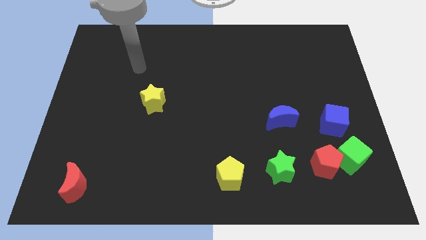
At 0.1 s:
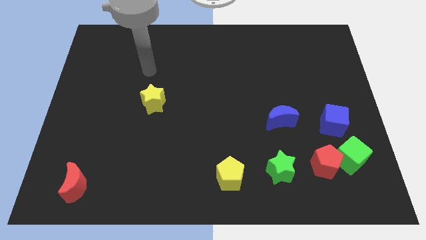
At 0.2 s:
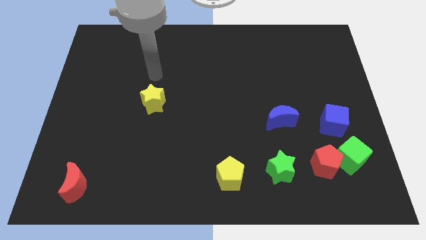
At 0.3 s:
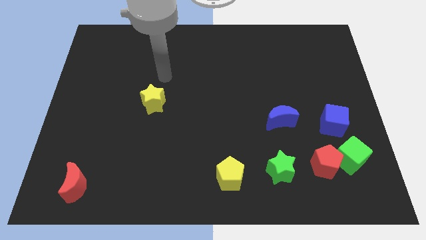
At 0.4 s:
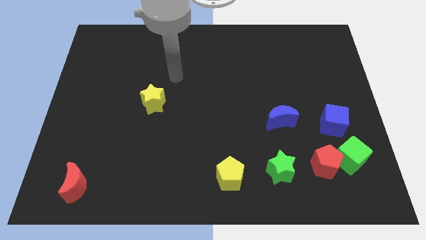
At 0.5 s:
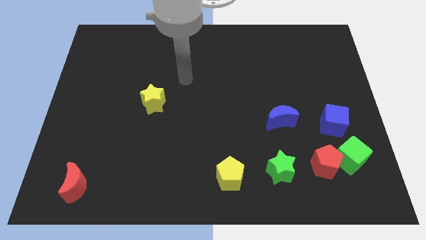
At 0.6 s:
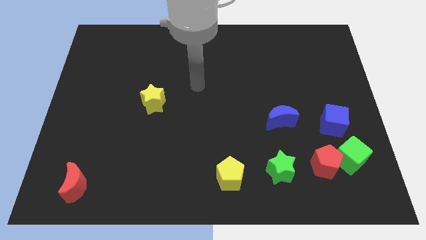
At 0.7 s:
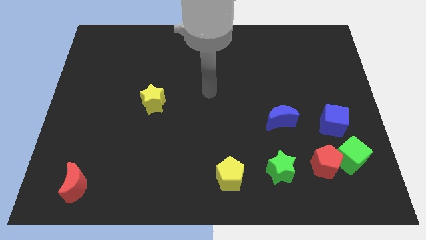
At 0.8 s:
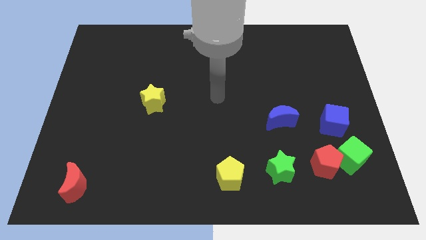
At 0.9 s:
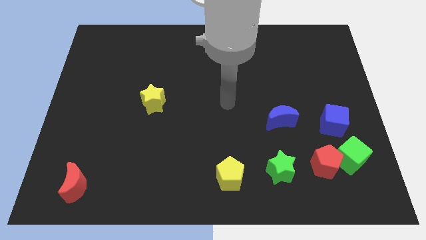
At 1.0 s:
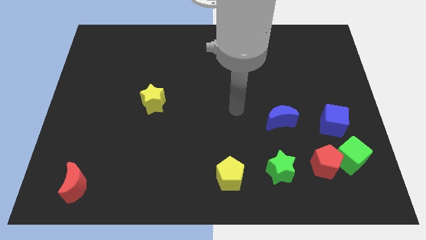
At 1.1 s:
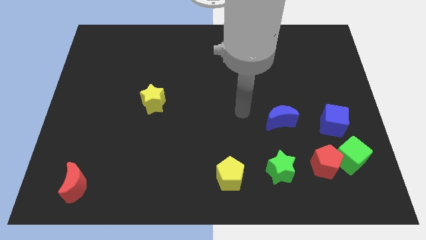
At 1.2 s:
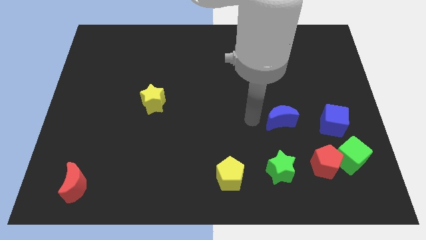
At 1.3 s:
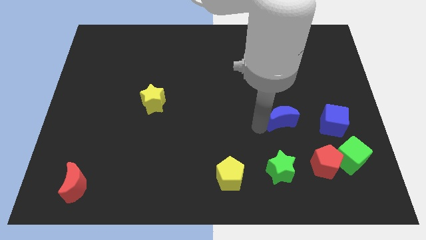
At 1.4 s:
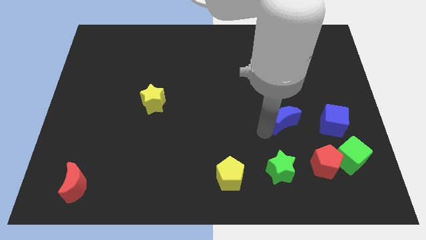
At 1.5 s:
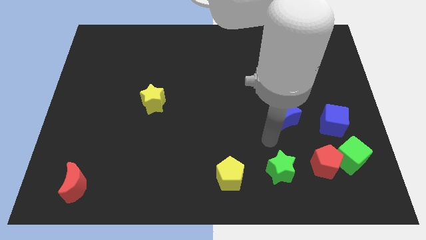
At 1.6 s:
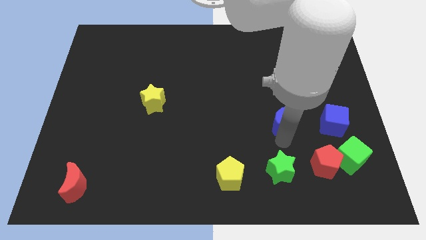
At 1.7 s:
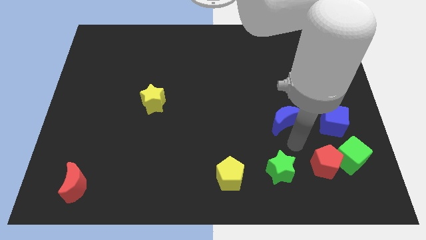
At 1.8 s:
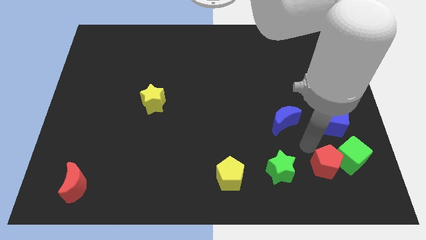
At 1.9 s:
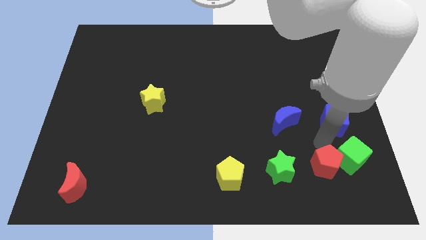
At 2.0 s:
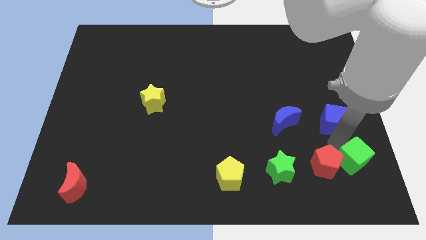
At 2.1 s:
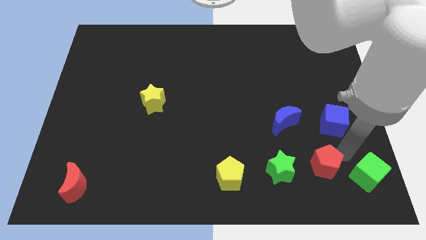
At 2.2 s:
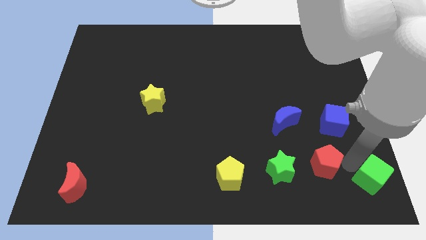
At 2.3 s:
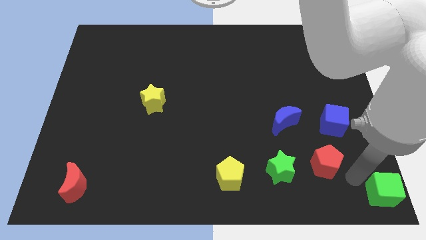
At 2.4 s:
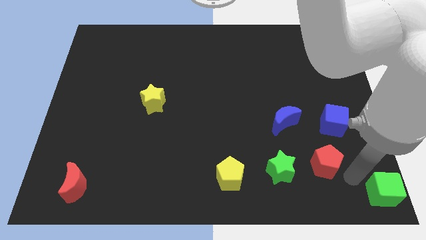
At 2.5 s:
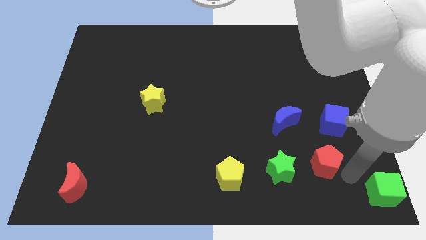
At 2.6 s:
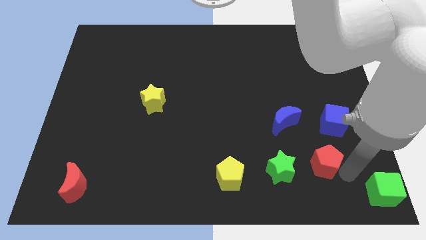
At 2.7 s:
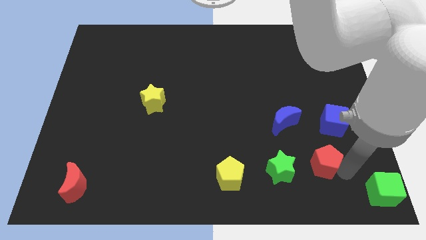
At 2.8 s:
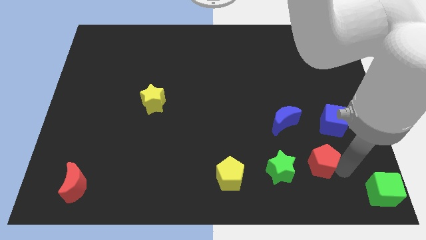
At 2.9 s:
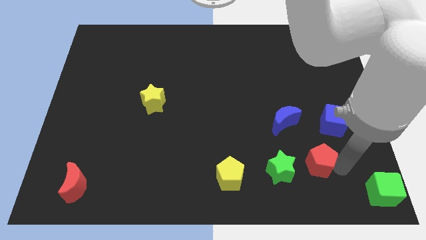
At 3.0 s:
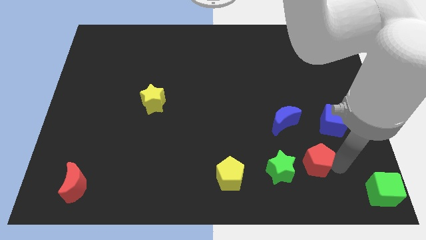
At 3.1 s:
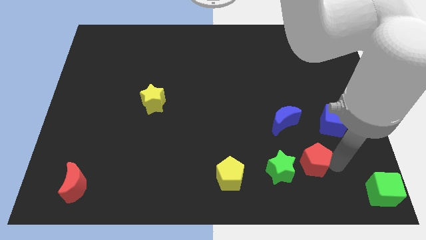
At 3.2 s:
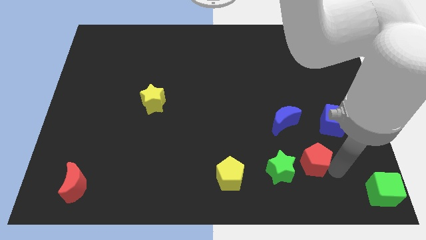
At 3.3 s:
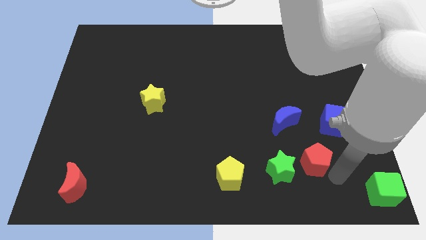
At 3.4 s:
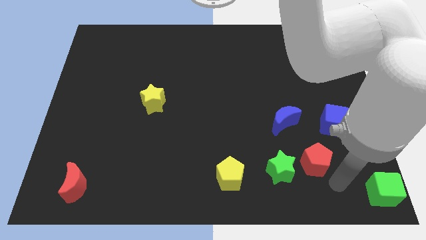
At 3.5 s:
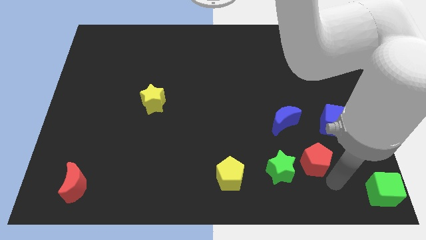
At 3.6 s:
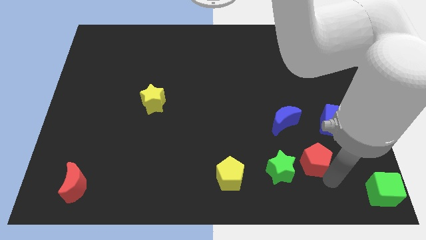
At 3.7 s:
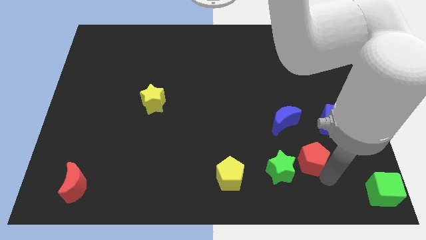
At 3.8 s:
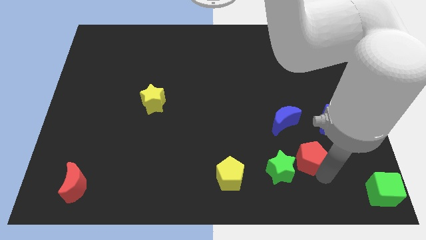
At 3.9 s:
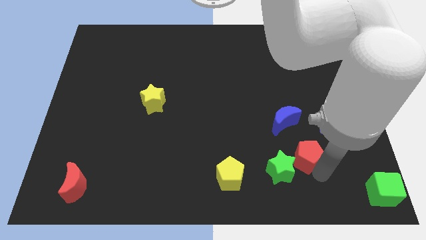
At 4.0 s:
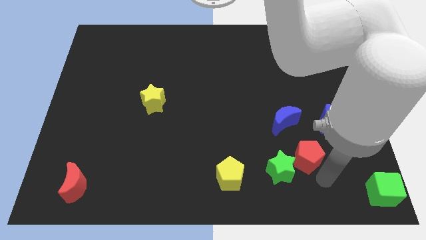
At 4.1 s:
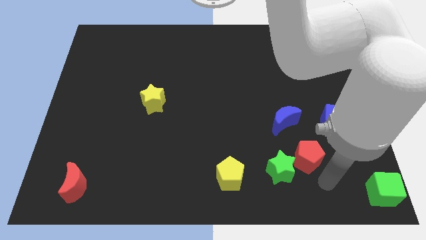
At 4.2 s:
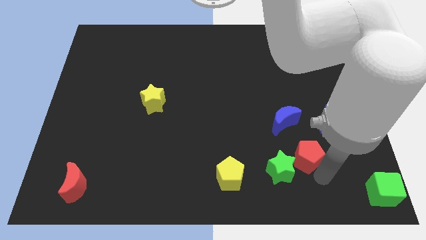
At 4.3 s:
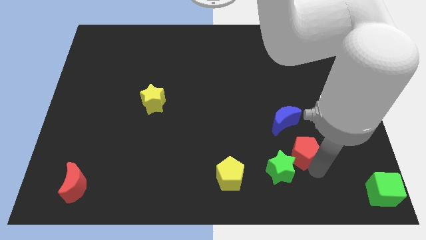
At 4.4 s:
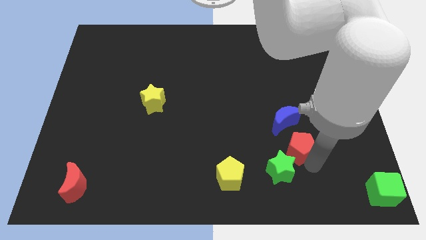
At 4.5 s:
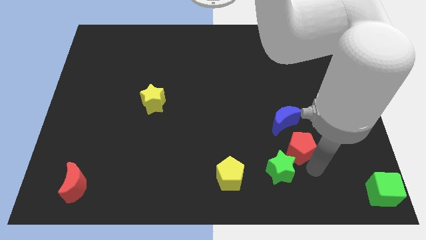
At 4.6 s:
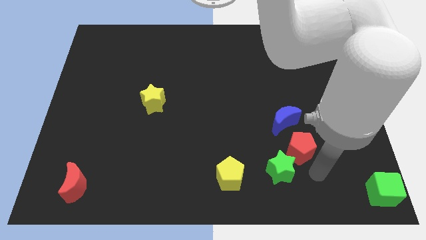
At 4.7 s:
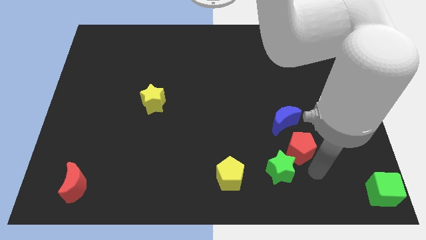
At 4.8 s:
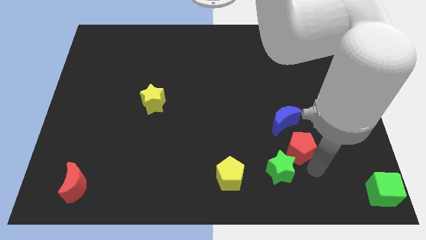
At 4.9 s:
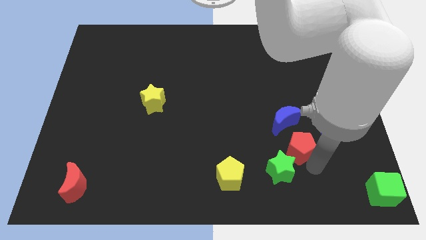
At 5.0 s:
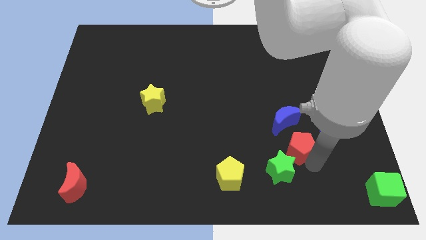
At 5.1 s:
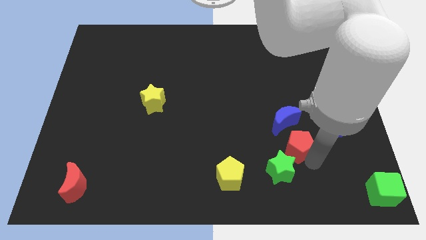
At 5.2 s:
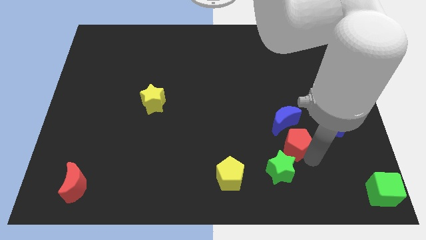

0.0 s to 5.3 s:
move the red pentagon slightly upwards and to the left

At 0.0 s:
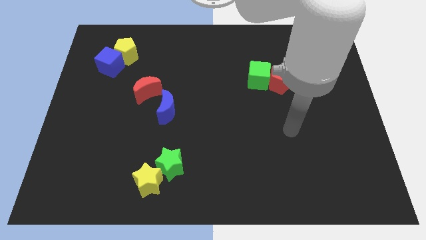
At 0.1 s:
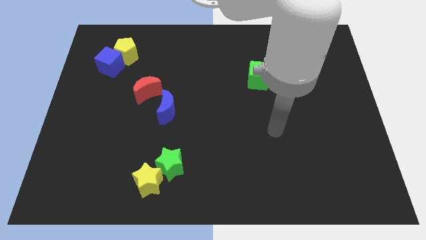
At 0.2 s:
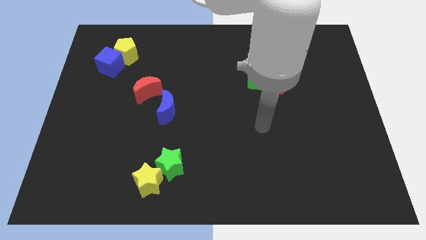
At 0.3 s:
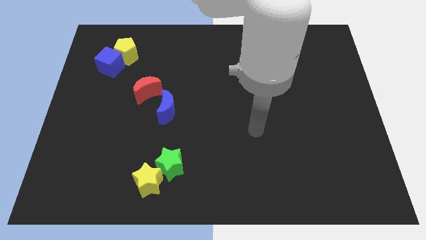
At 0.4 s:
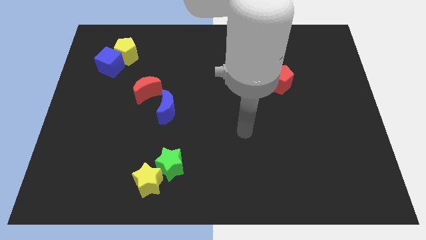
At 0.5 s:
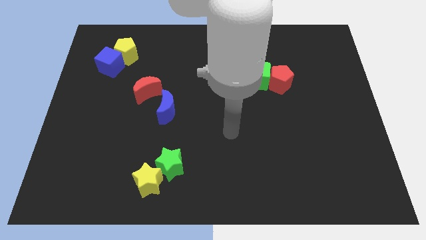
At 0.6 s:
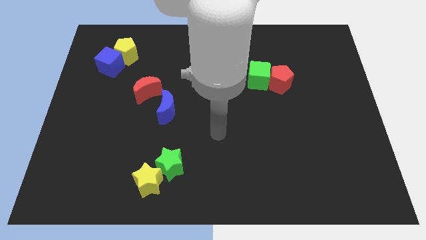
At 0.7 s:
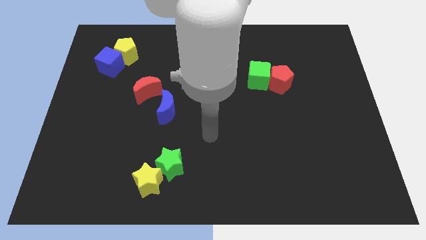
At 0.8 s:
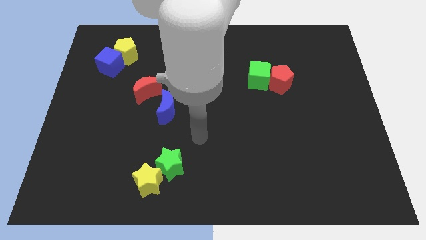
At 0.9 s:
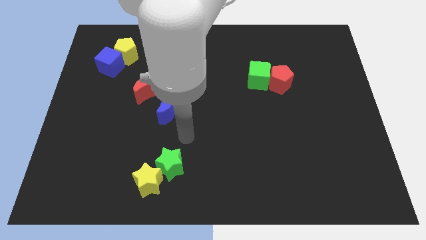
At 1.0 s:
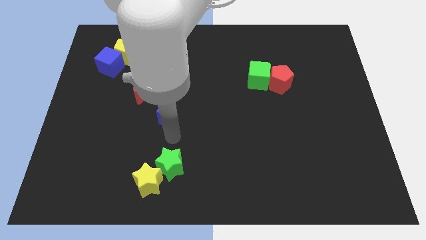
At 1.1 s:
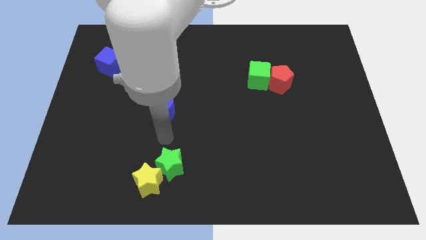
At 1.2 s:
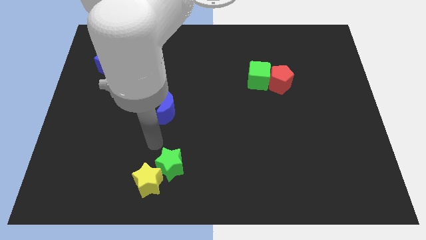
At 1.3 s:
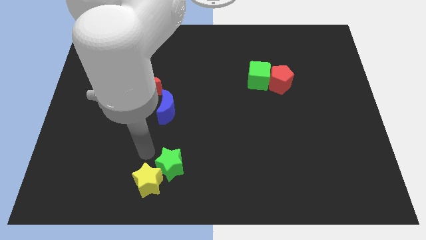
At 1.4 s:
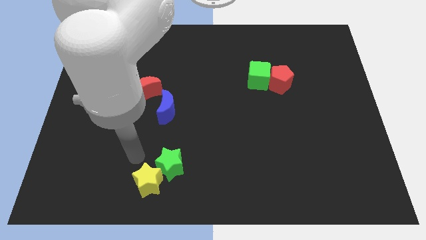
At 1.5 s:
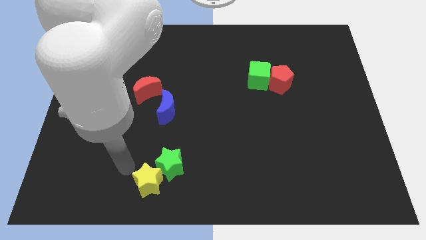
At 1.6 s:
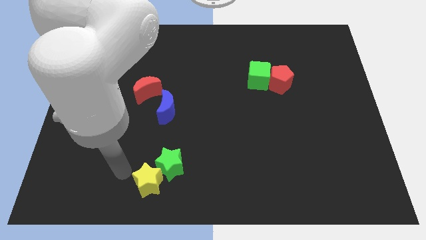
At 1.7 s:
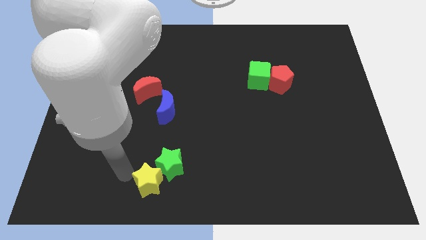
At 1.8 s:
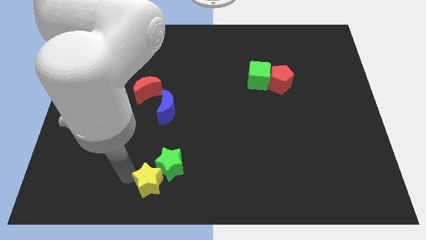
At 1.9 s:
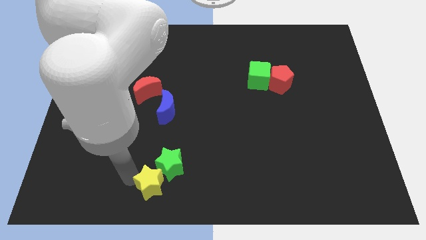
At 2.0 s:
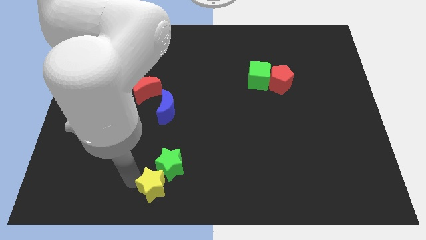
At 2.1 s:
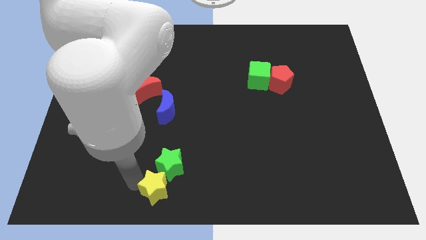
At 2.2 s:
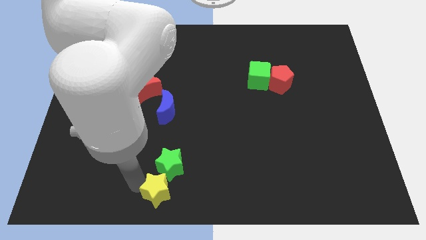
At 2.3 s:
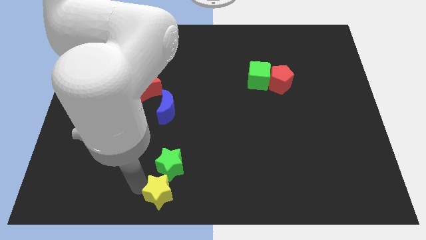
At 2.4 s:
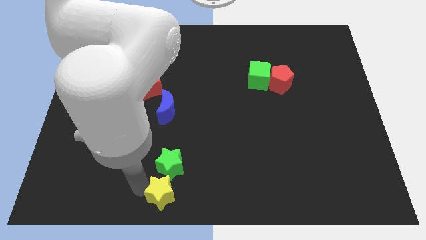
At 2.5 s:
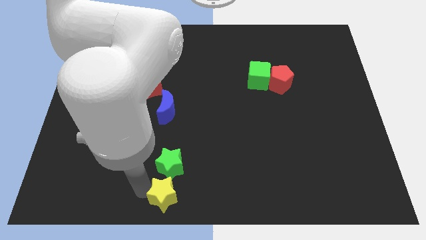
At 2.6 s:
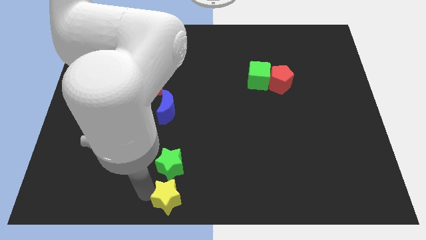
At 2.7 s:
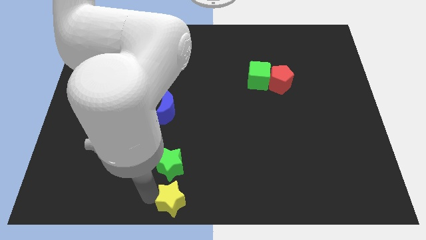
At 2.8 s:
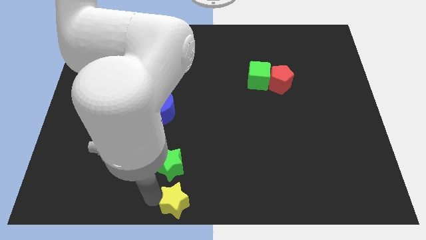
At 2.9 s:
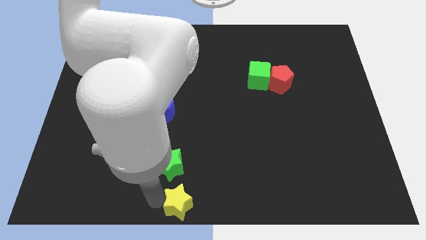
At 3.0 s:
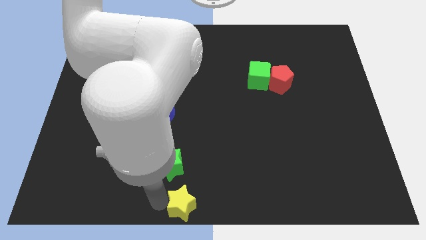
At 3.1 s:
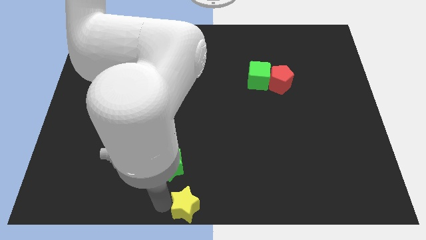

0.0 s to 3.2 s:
move the yellow star right a little
